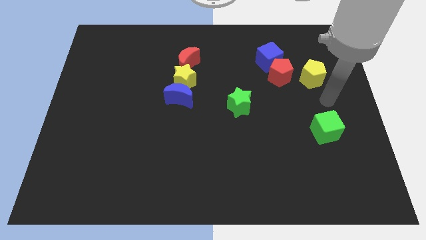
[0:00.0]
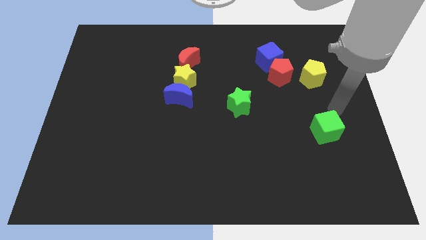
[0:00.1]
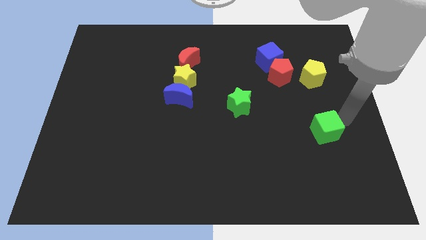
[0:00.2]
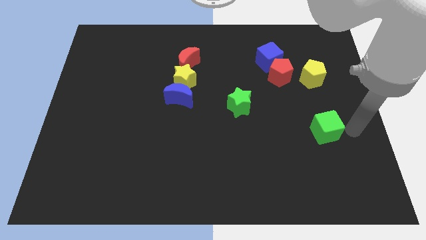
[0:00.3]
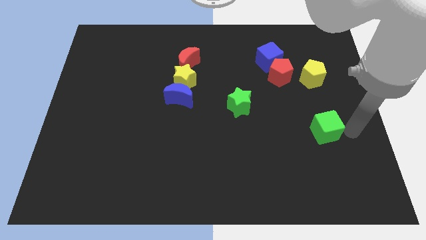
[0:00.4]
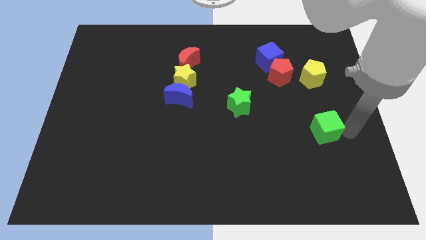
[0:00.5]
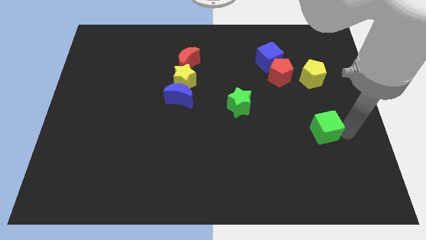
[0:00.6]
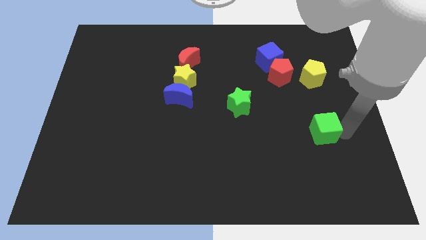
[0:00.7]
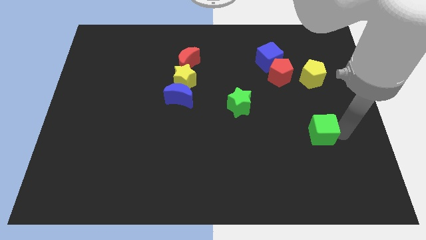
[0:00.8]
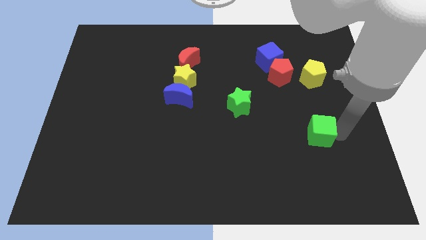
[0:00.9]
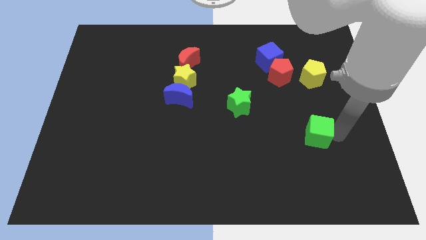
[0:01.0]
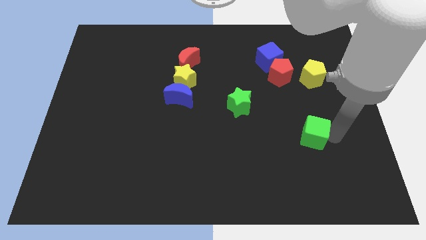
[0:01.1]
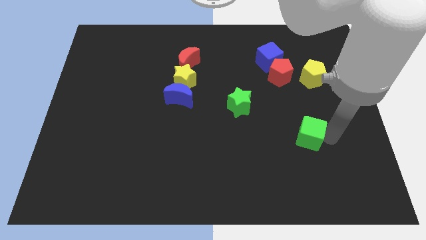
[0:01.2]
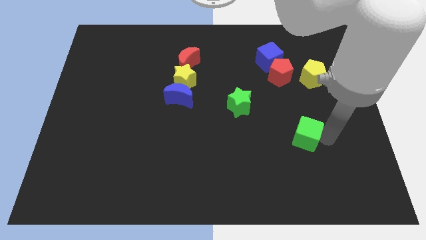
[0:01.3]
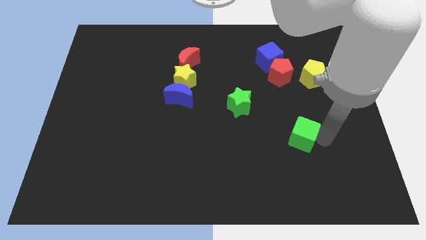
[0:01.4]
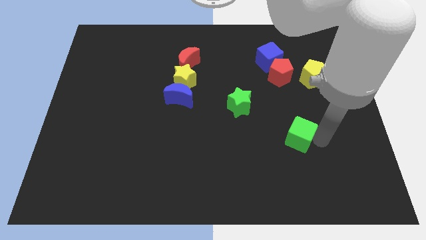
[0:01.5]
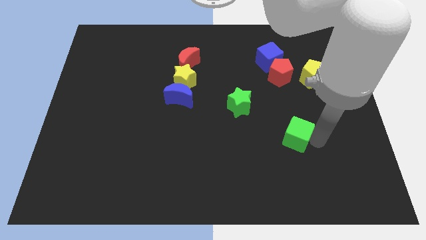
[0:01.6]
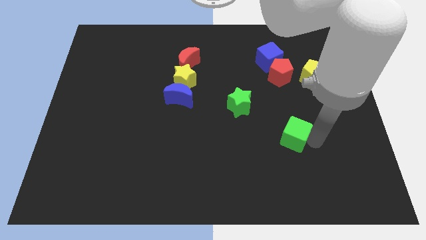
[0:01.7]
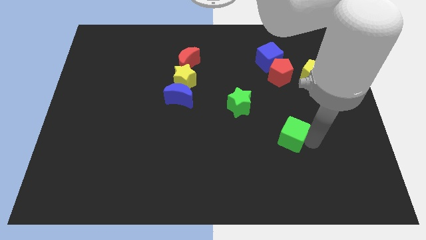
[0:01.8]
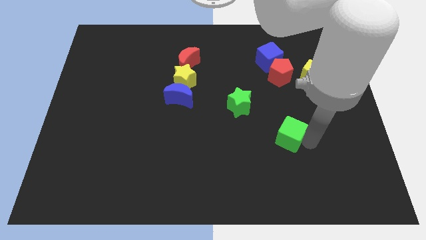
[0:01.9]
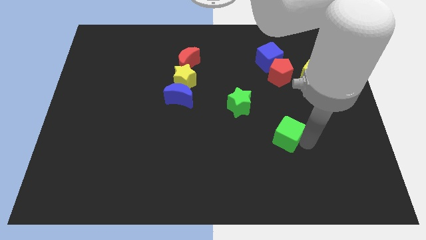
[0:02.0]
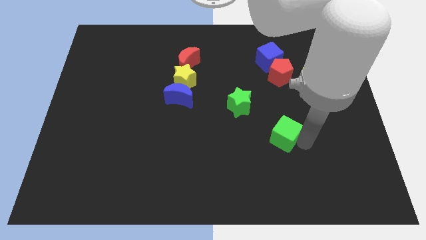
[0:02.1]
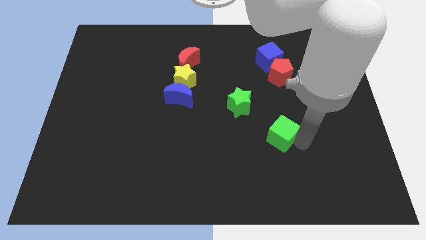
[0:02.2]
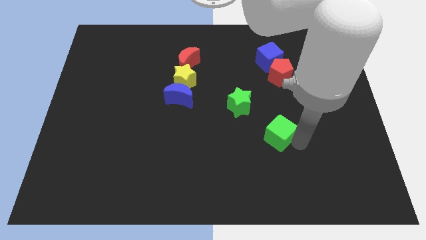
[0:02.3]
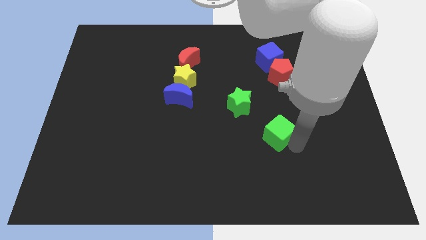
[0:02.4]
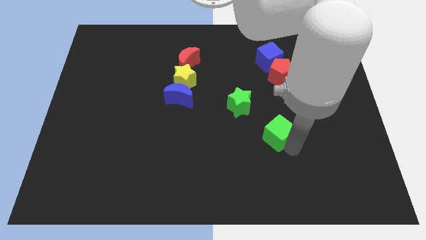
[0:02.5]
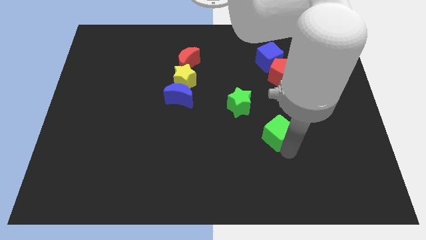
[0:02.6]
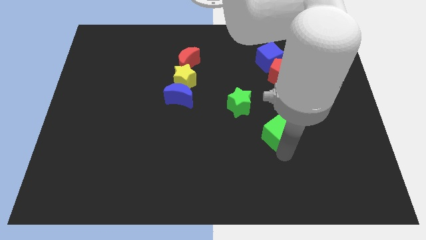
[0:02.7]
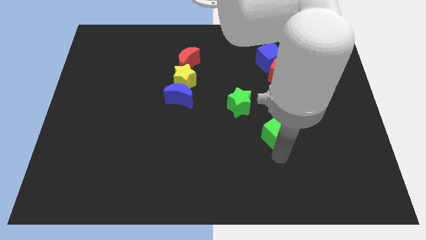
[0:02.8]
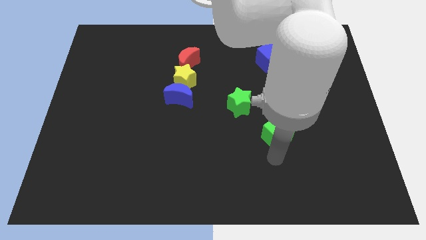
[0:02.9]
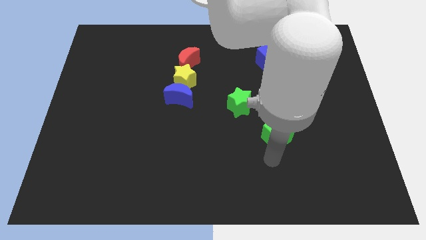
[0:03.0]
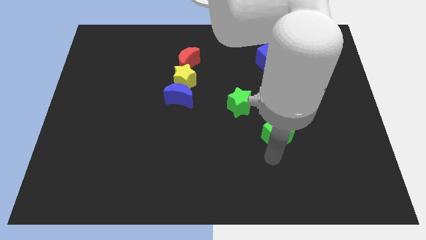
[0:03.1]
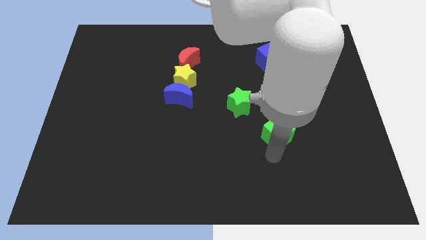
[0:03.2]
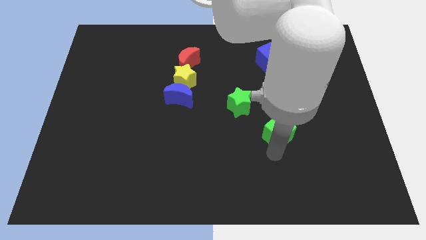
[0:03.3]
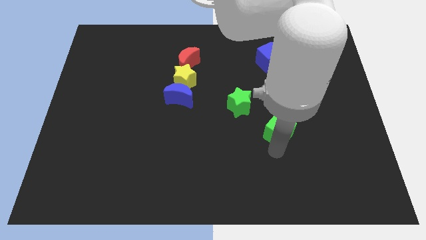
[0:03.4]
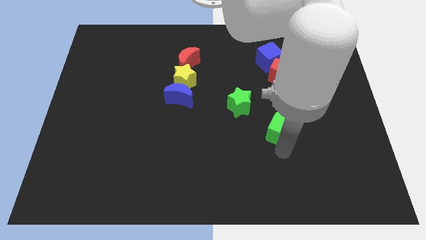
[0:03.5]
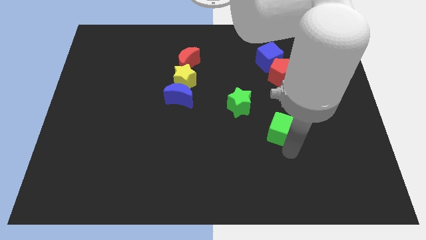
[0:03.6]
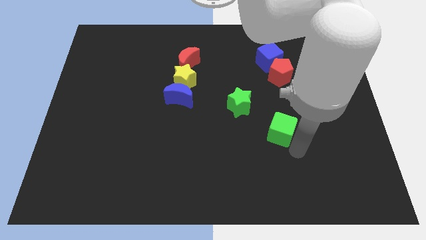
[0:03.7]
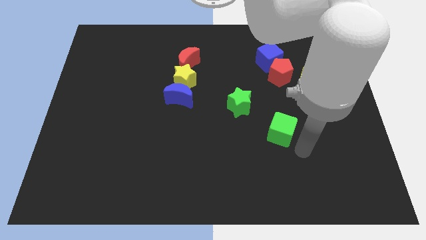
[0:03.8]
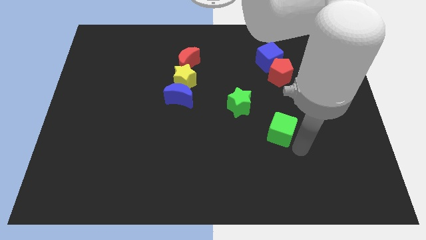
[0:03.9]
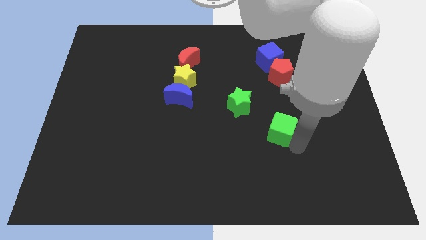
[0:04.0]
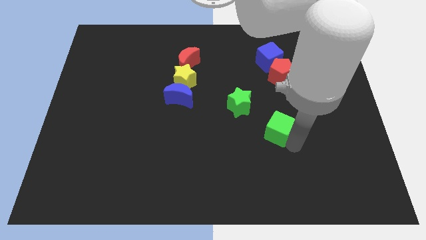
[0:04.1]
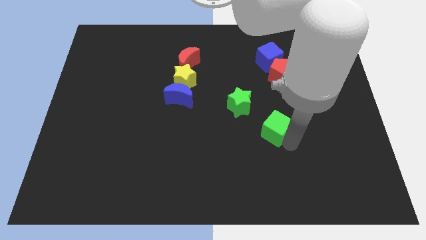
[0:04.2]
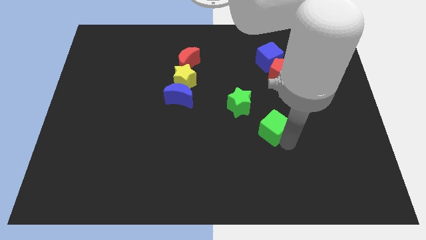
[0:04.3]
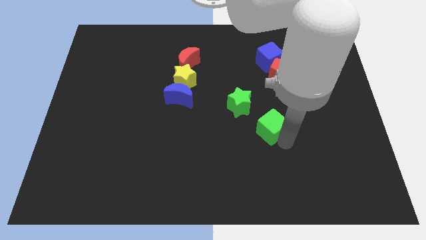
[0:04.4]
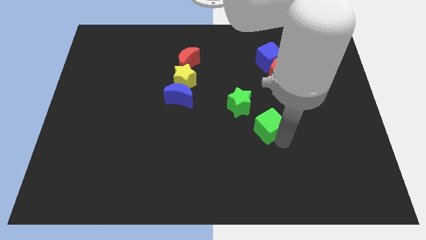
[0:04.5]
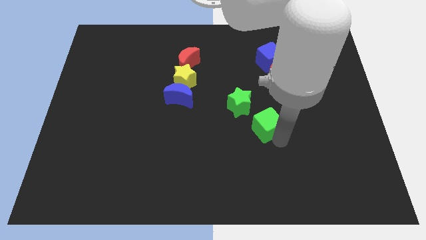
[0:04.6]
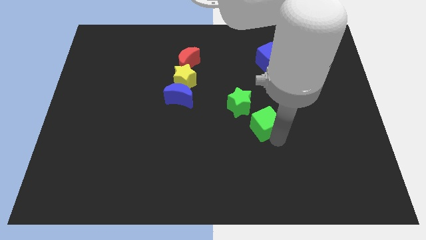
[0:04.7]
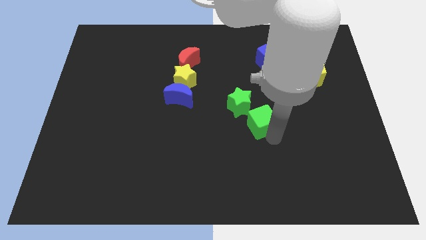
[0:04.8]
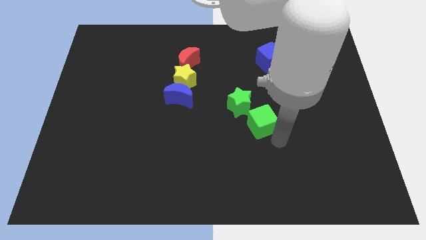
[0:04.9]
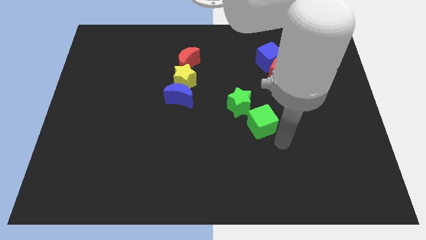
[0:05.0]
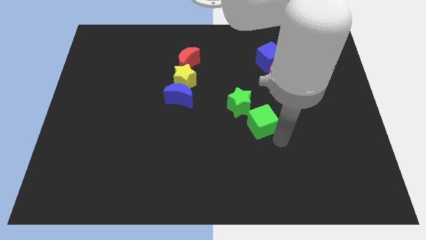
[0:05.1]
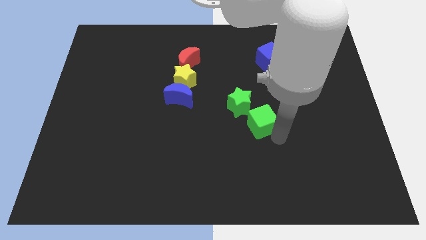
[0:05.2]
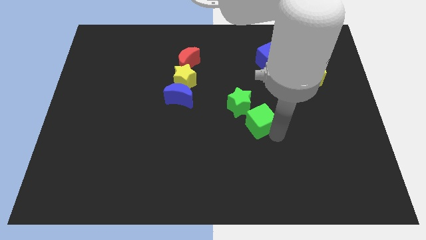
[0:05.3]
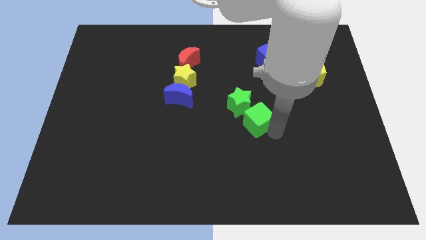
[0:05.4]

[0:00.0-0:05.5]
push the green cube next to the green star

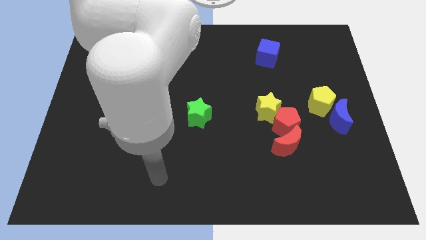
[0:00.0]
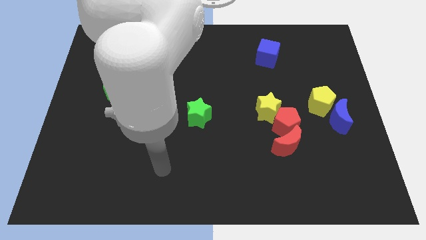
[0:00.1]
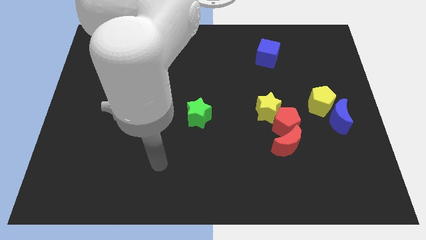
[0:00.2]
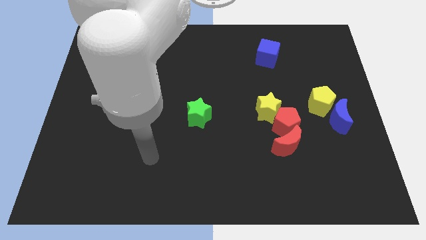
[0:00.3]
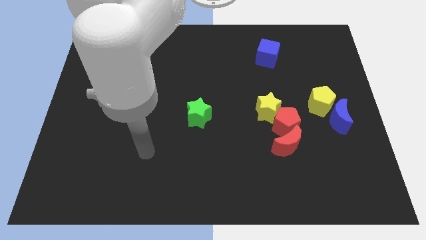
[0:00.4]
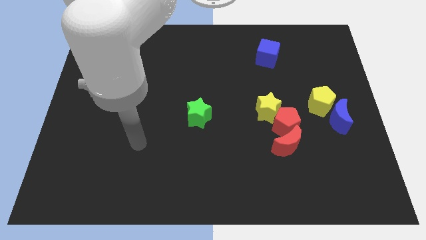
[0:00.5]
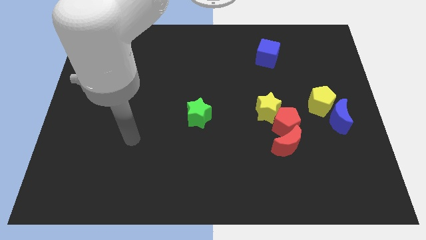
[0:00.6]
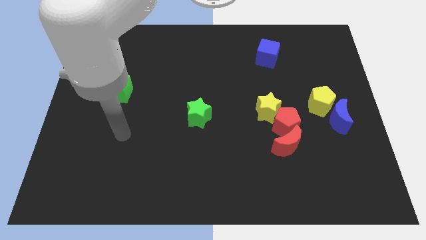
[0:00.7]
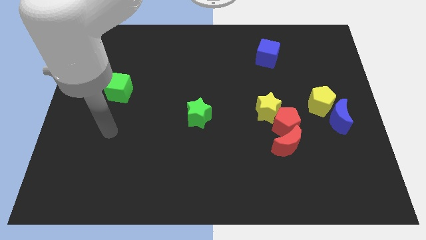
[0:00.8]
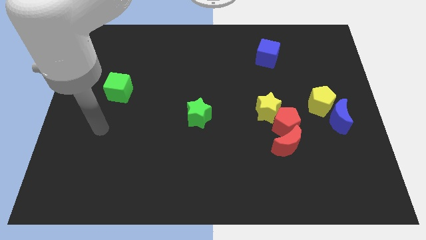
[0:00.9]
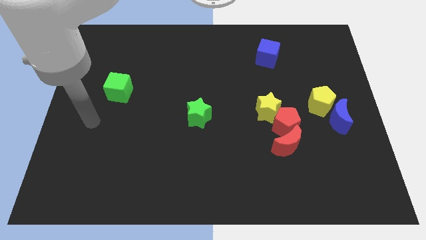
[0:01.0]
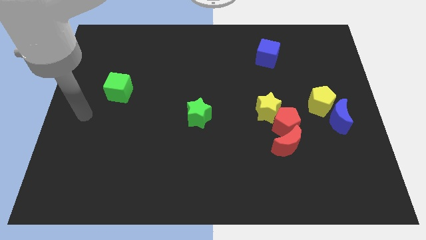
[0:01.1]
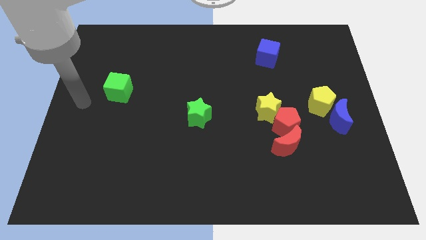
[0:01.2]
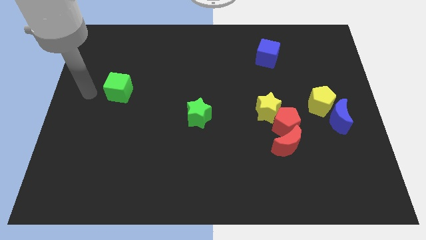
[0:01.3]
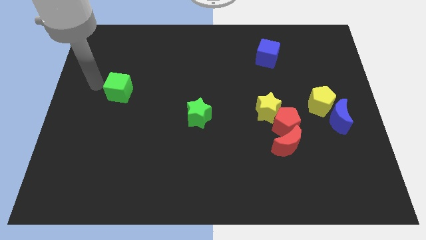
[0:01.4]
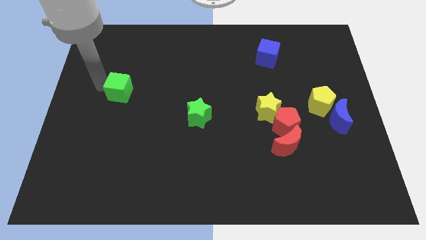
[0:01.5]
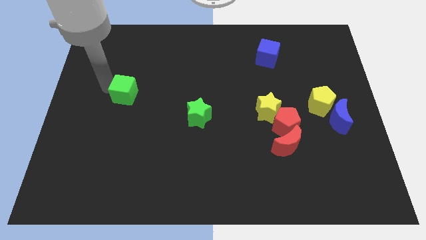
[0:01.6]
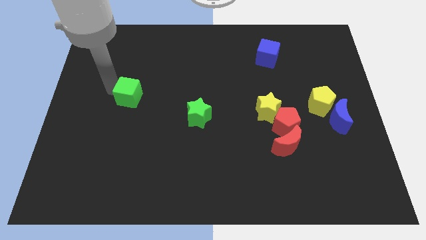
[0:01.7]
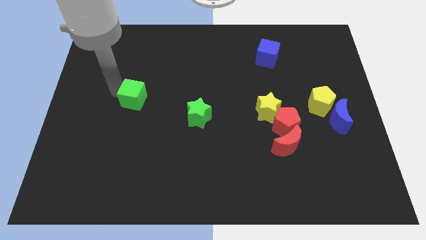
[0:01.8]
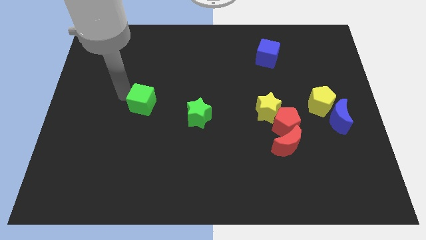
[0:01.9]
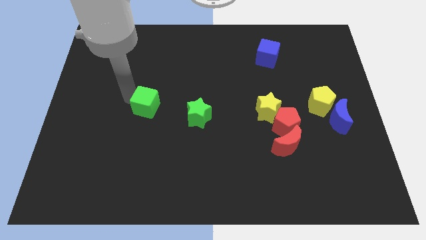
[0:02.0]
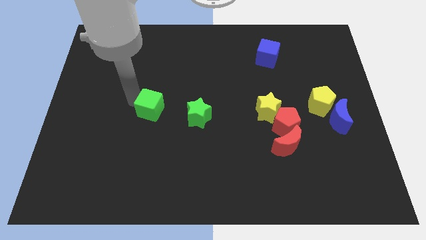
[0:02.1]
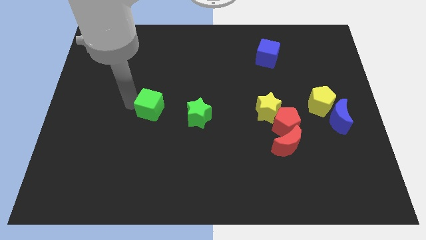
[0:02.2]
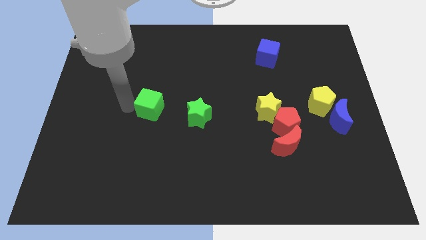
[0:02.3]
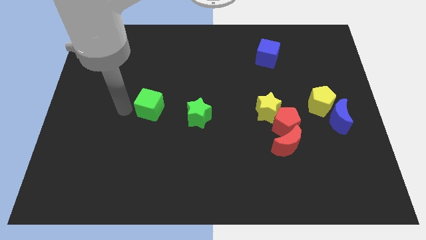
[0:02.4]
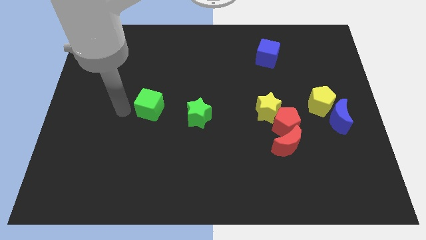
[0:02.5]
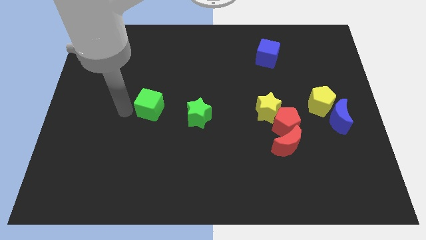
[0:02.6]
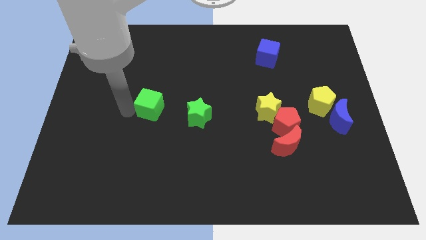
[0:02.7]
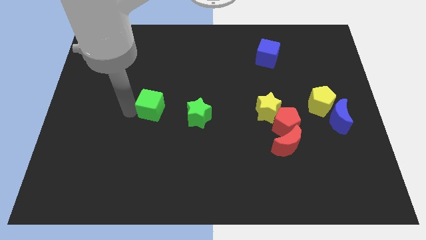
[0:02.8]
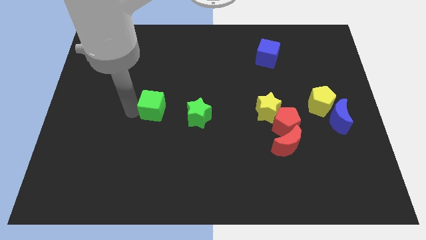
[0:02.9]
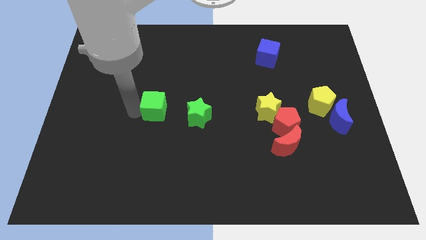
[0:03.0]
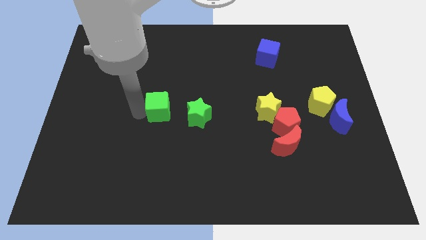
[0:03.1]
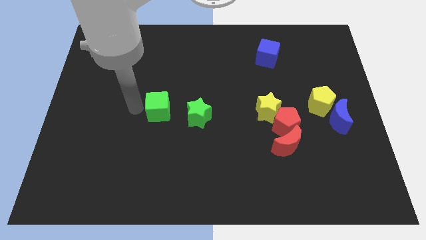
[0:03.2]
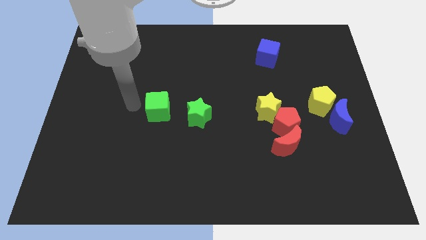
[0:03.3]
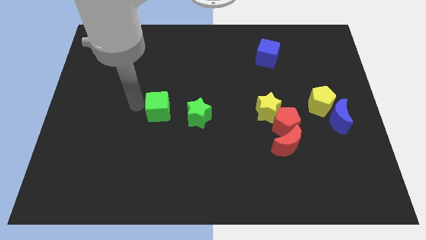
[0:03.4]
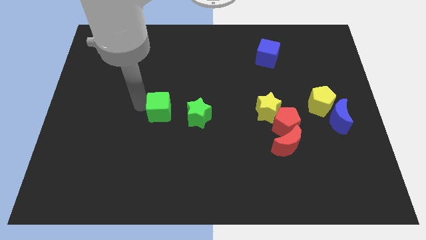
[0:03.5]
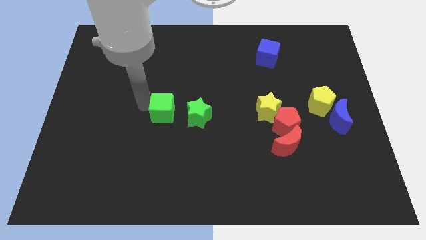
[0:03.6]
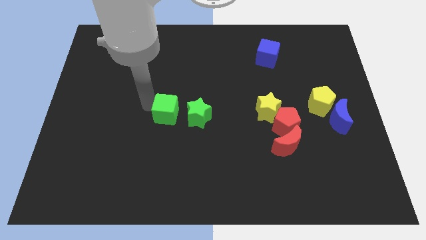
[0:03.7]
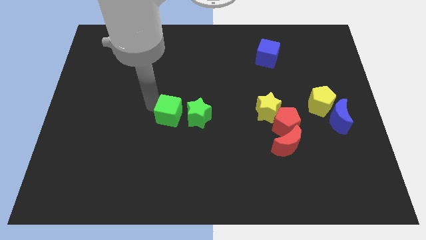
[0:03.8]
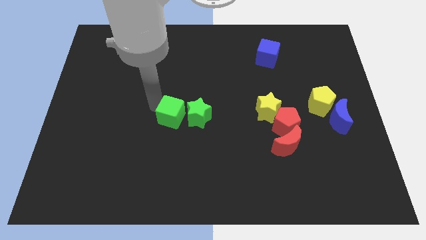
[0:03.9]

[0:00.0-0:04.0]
put the green cube next to the green star
